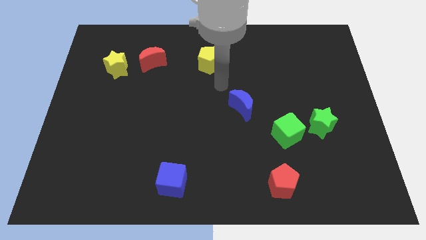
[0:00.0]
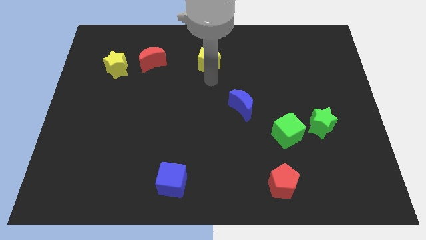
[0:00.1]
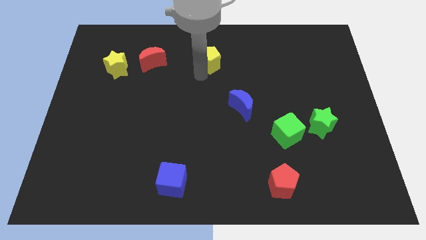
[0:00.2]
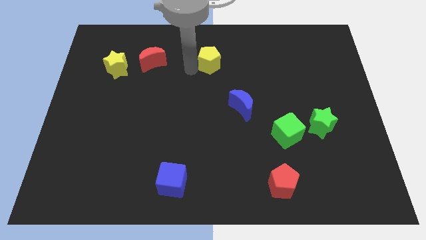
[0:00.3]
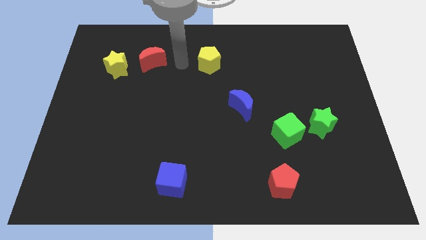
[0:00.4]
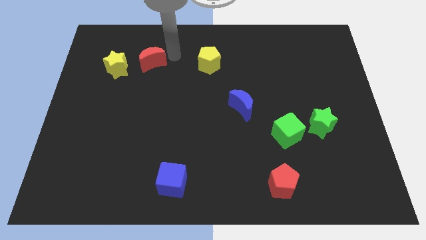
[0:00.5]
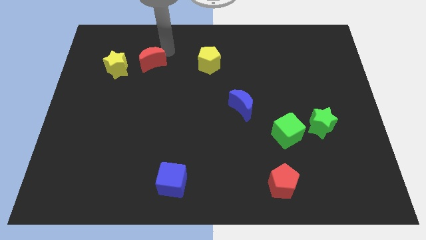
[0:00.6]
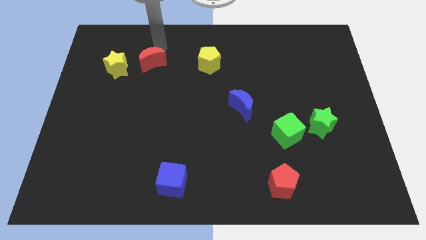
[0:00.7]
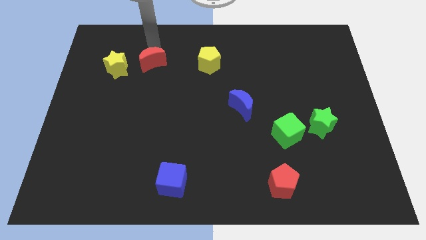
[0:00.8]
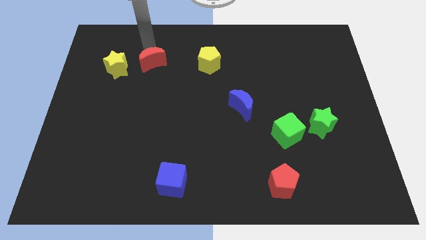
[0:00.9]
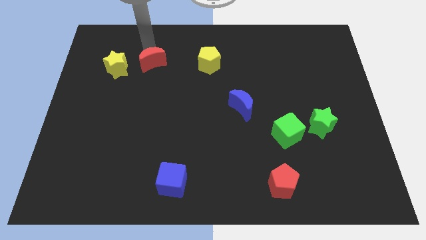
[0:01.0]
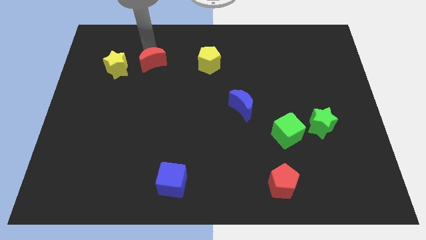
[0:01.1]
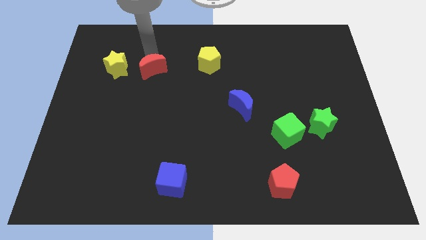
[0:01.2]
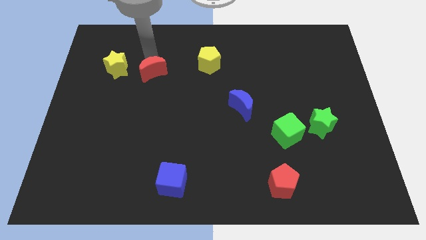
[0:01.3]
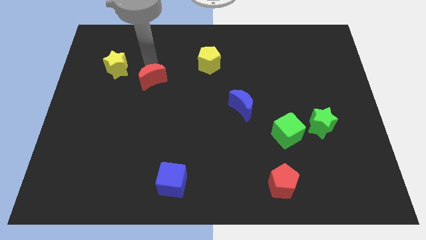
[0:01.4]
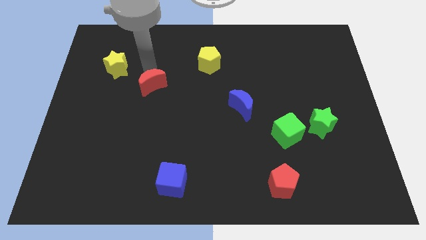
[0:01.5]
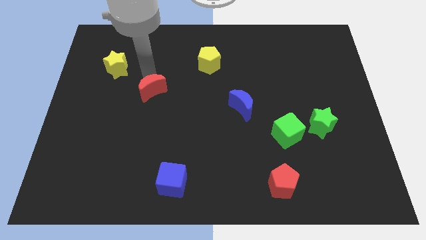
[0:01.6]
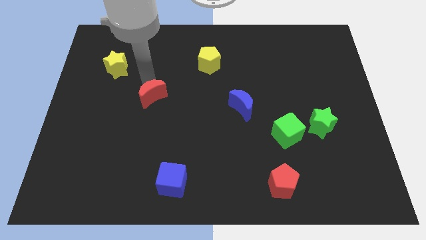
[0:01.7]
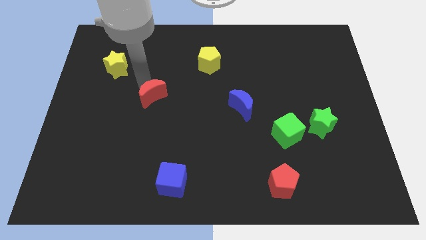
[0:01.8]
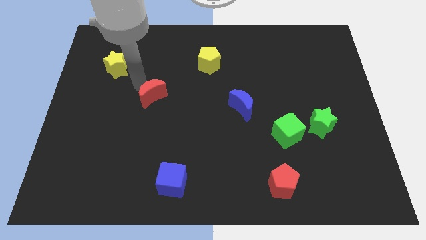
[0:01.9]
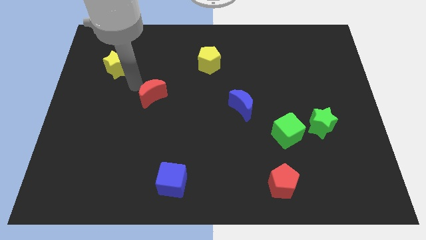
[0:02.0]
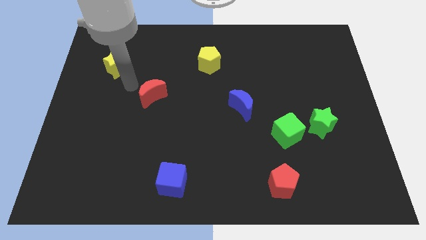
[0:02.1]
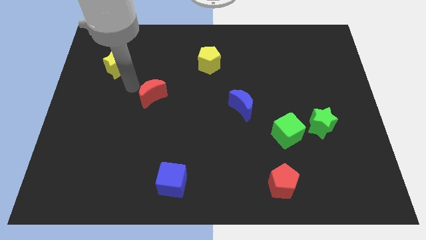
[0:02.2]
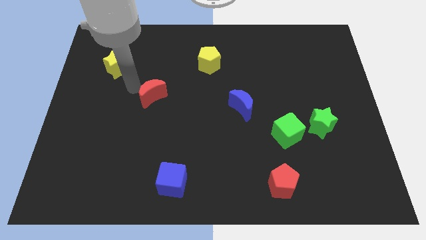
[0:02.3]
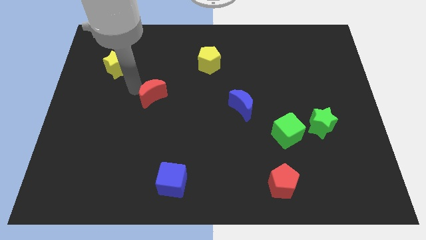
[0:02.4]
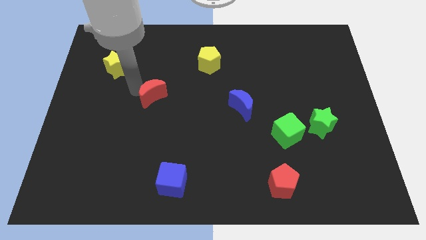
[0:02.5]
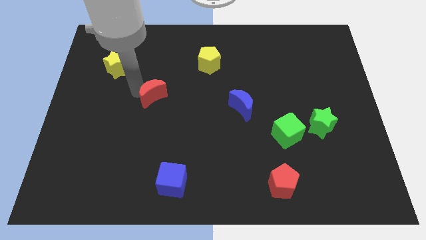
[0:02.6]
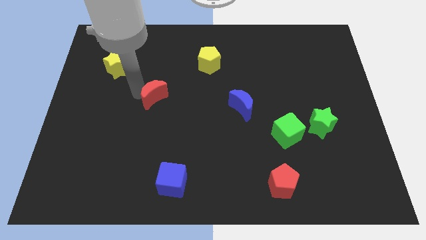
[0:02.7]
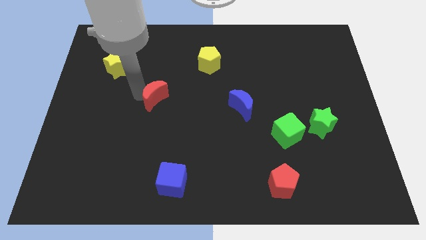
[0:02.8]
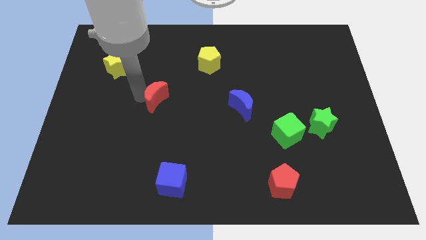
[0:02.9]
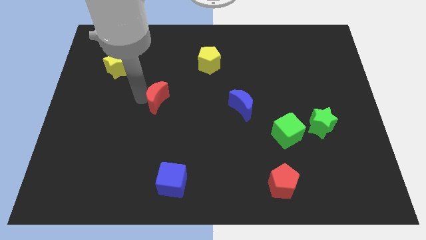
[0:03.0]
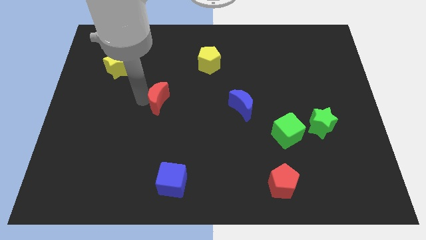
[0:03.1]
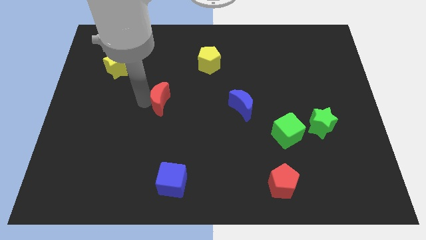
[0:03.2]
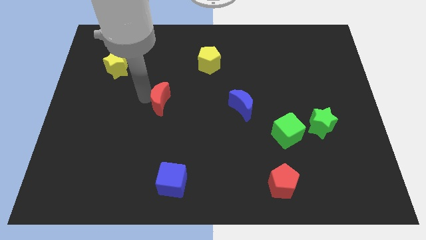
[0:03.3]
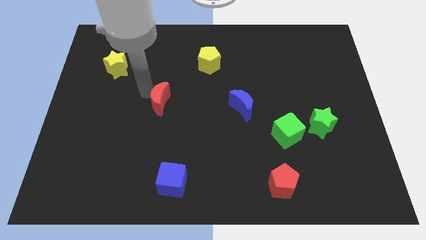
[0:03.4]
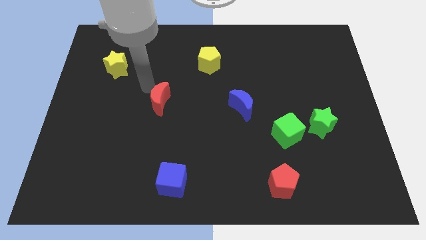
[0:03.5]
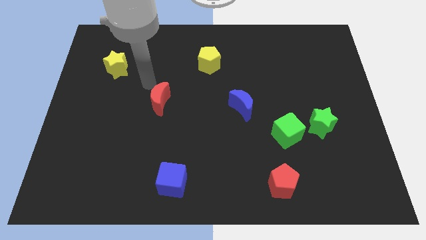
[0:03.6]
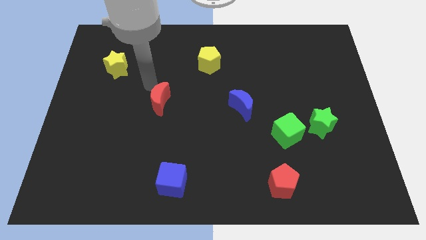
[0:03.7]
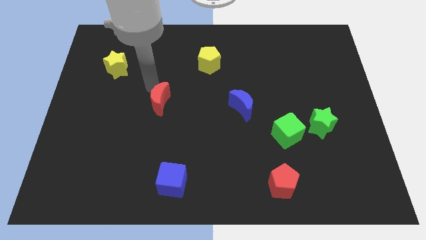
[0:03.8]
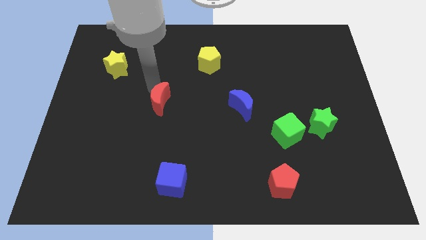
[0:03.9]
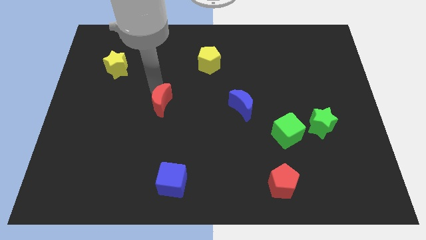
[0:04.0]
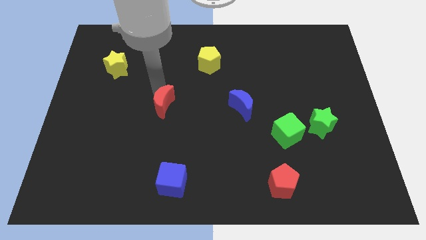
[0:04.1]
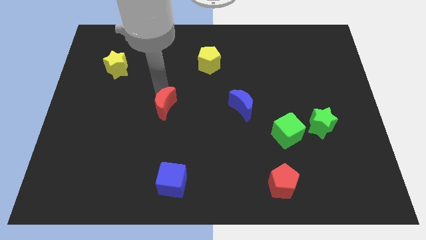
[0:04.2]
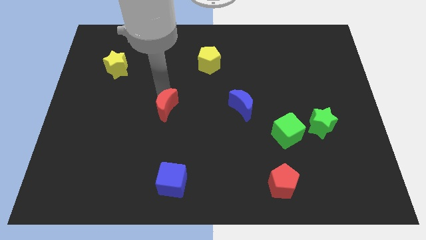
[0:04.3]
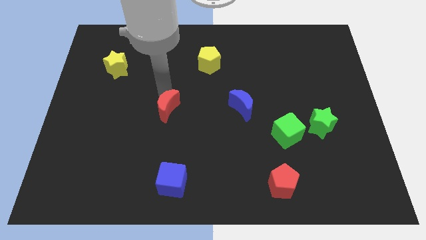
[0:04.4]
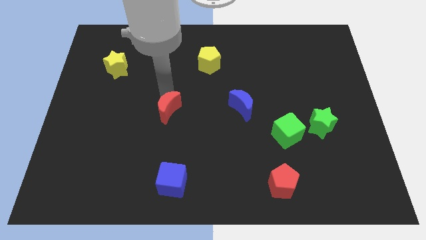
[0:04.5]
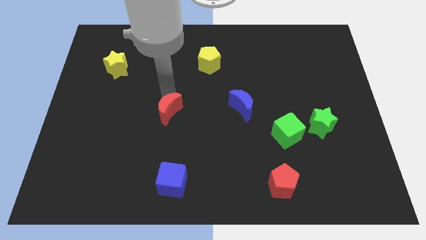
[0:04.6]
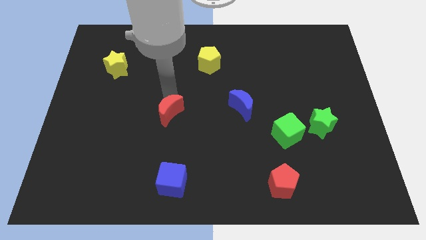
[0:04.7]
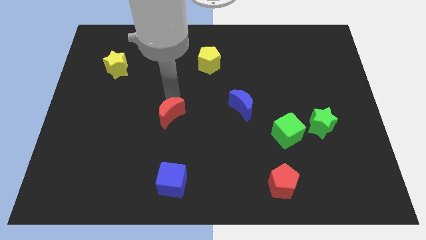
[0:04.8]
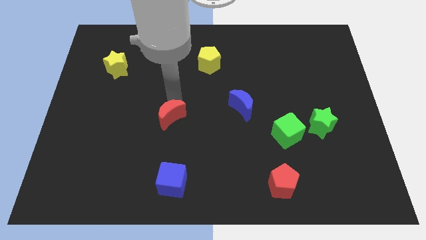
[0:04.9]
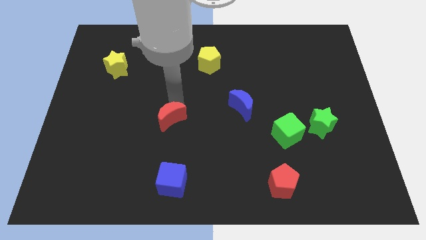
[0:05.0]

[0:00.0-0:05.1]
put the red moon to the top side of the blue cube

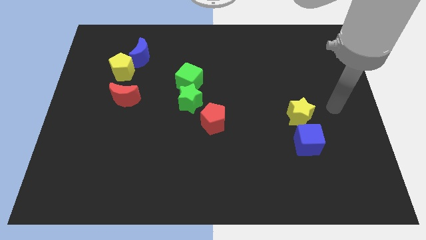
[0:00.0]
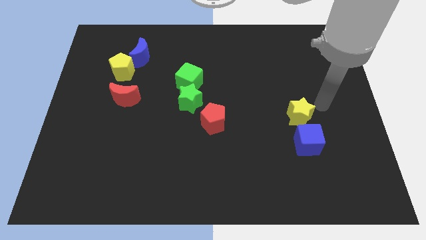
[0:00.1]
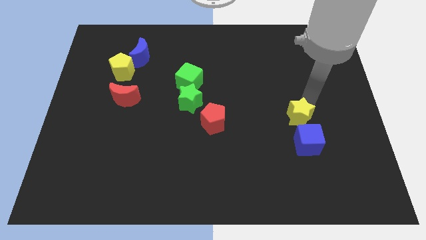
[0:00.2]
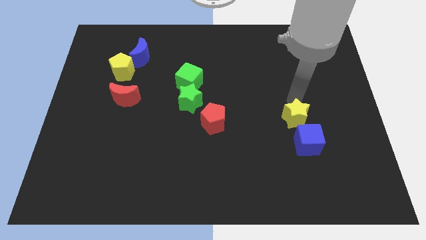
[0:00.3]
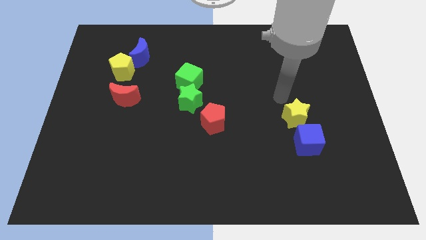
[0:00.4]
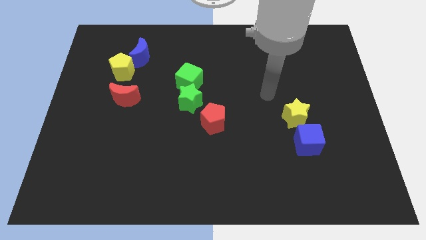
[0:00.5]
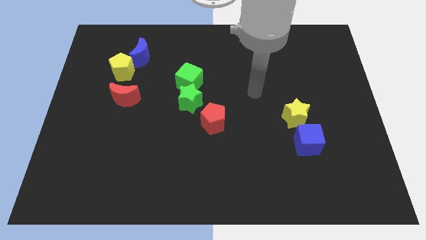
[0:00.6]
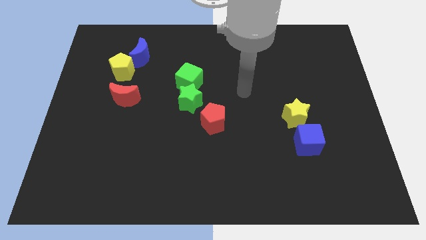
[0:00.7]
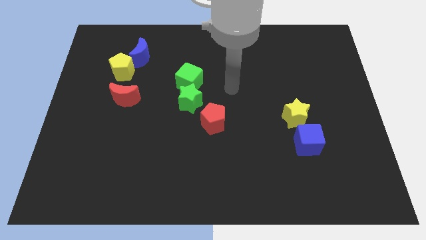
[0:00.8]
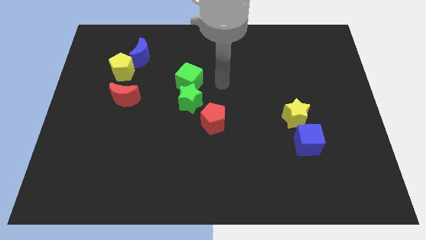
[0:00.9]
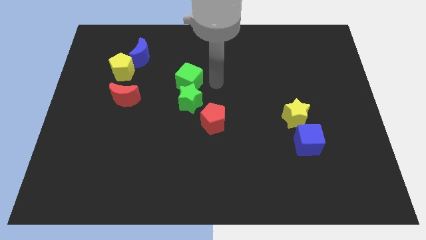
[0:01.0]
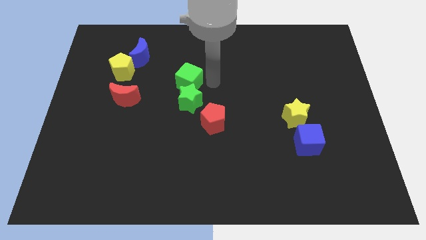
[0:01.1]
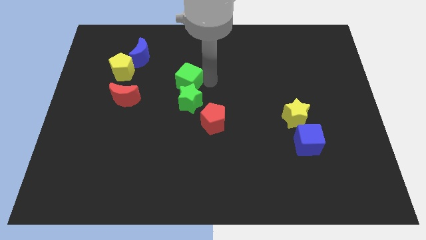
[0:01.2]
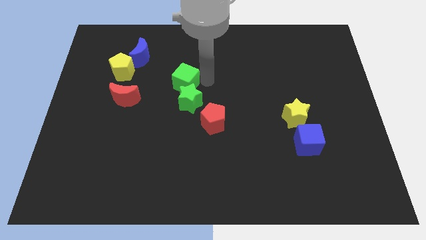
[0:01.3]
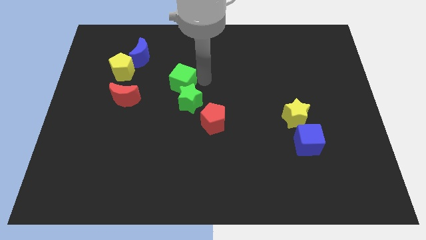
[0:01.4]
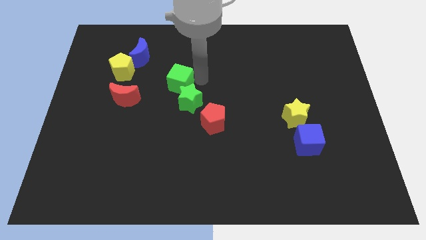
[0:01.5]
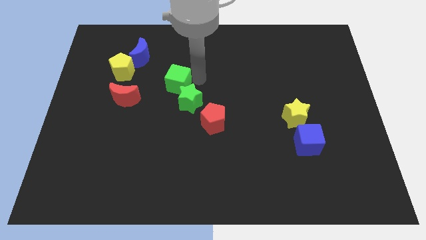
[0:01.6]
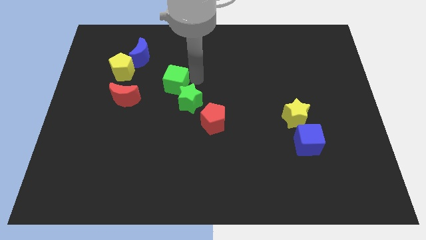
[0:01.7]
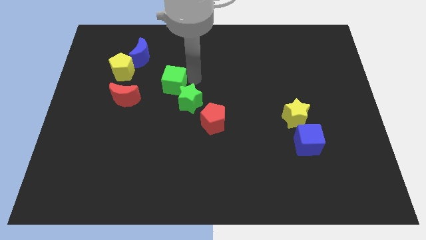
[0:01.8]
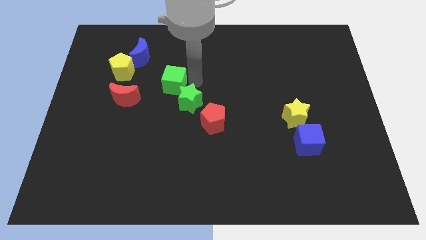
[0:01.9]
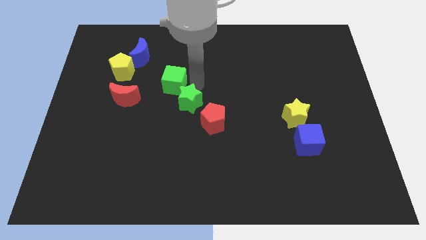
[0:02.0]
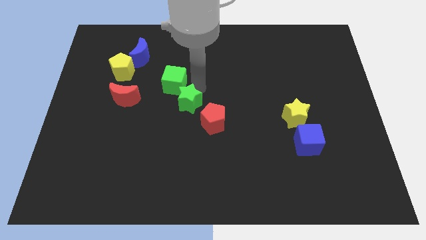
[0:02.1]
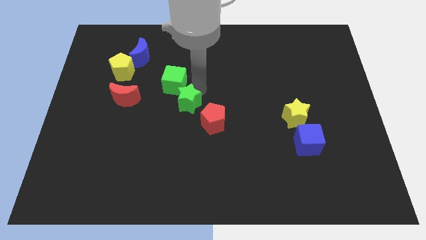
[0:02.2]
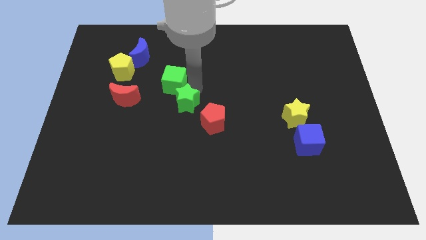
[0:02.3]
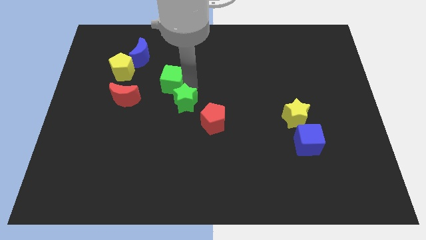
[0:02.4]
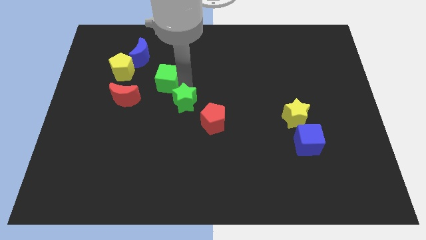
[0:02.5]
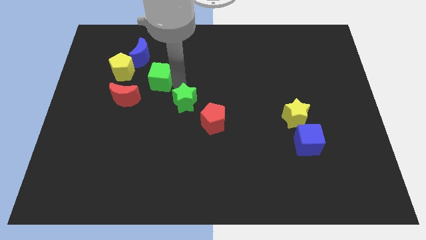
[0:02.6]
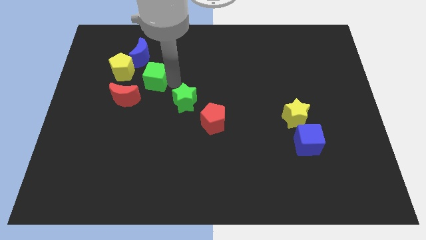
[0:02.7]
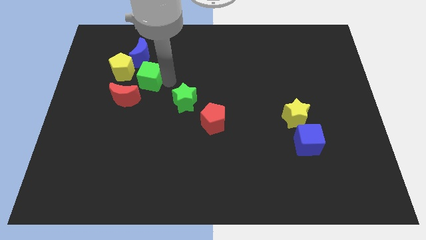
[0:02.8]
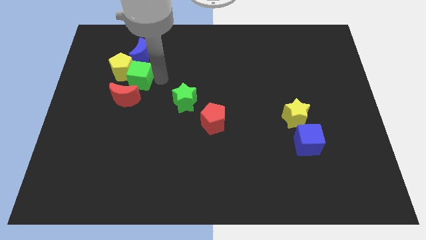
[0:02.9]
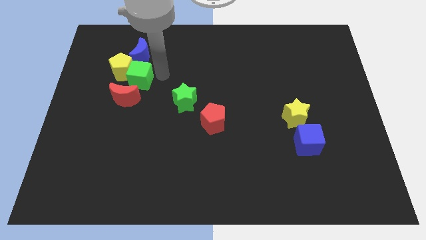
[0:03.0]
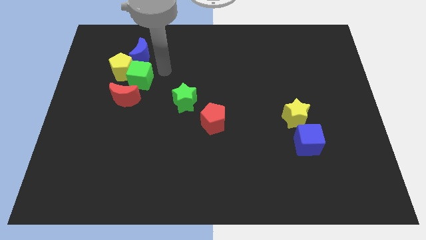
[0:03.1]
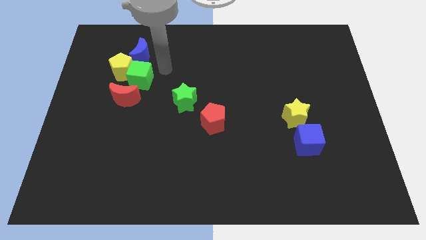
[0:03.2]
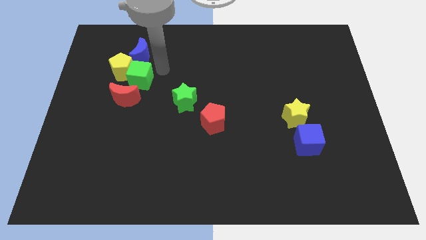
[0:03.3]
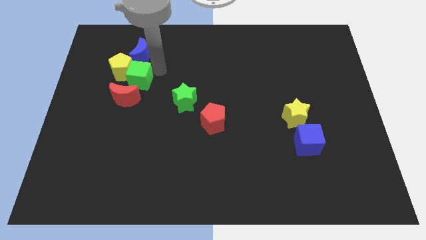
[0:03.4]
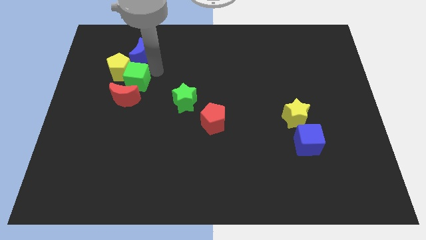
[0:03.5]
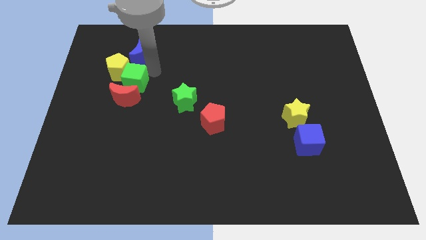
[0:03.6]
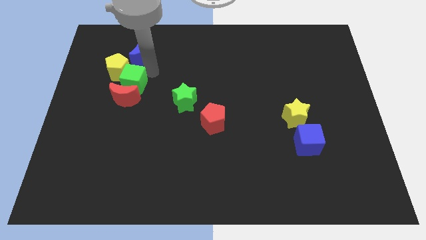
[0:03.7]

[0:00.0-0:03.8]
move the green cube to the top left side of the red moon
